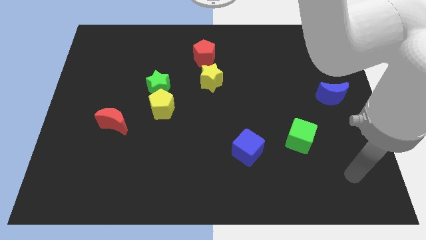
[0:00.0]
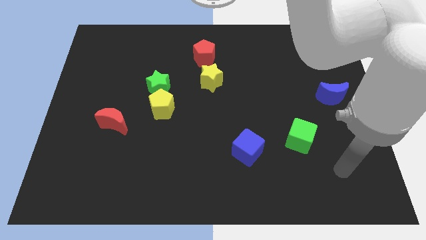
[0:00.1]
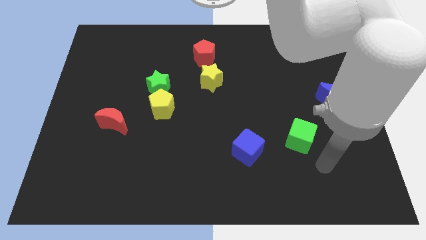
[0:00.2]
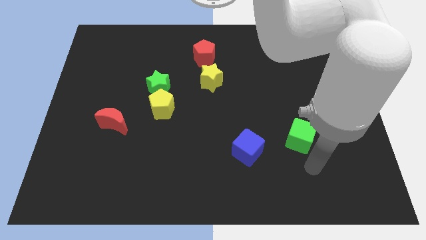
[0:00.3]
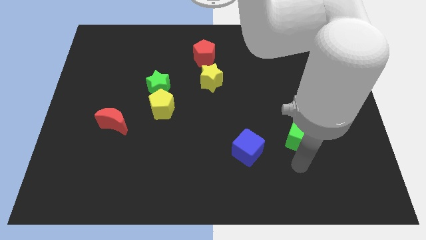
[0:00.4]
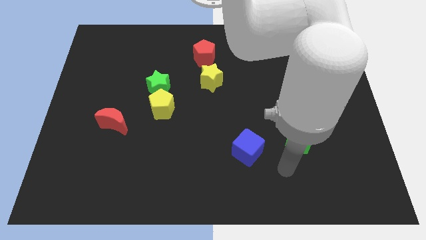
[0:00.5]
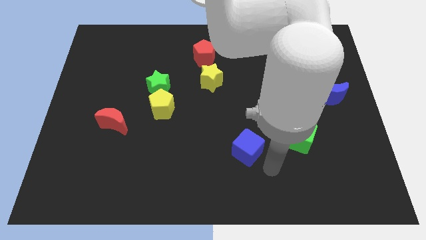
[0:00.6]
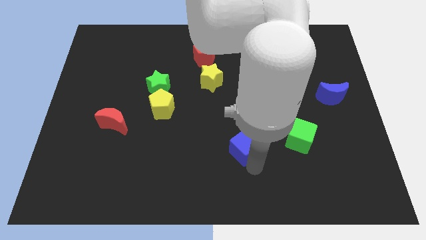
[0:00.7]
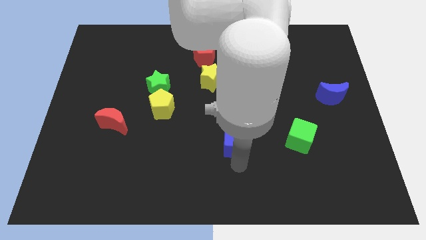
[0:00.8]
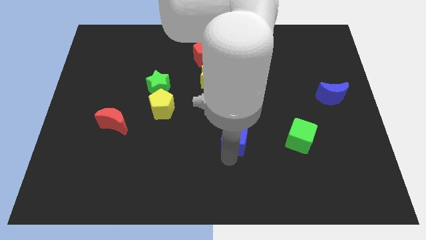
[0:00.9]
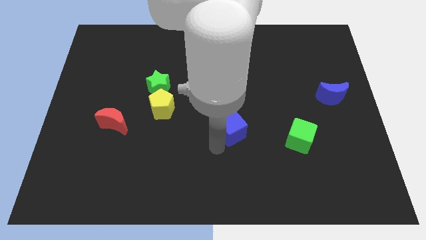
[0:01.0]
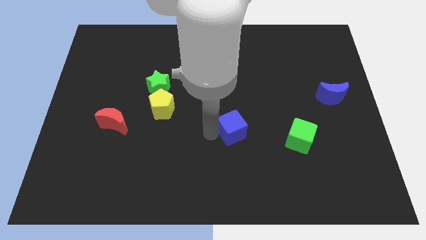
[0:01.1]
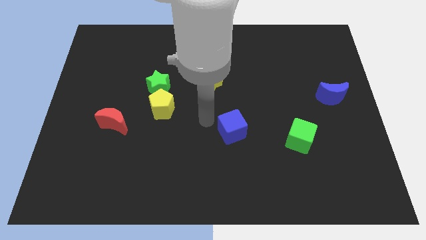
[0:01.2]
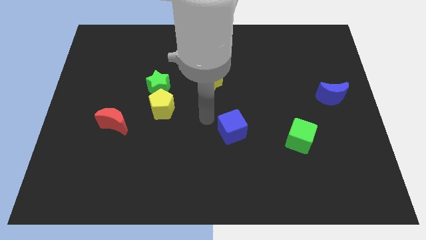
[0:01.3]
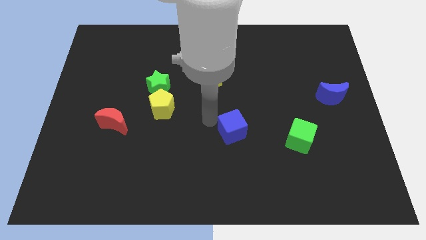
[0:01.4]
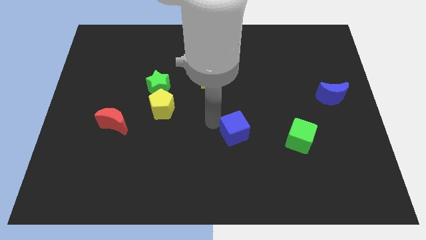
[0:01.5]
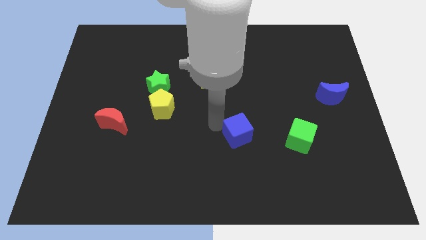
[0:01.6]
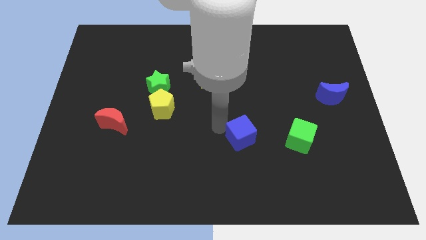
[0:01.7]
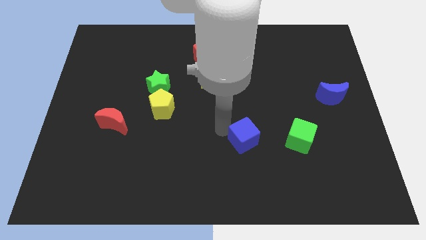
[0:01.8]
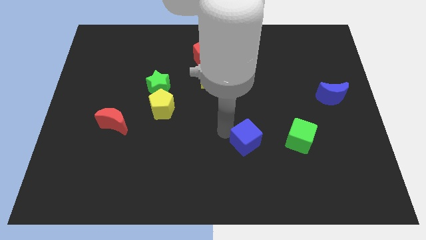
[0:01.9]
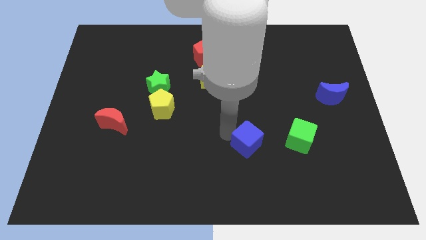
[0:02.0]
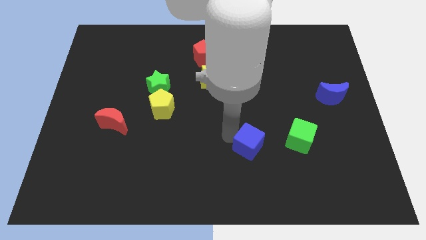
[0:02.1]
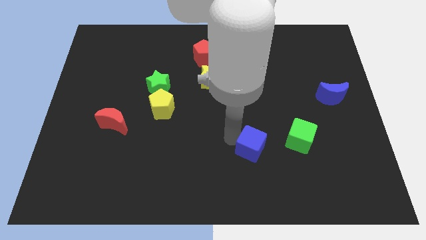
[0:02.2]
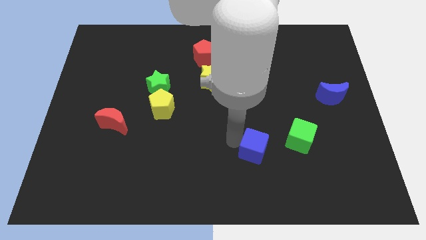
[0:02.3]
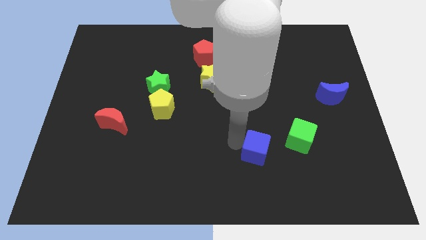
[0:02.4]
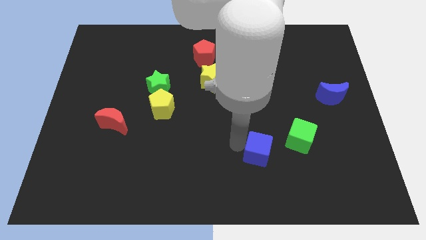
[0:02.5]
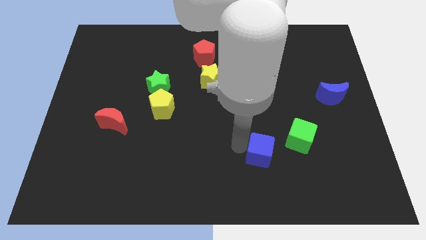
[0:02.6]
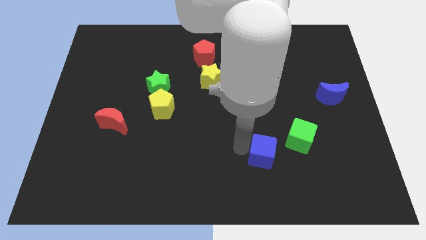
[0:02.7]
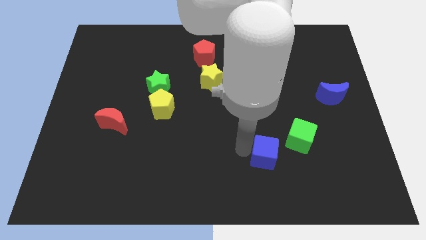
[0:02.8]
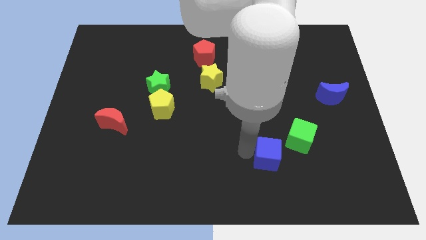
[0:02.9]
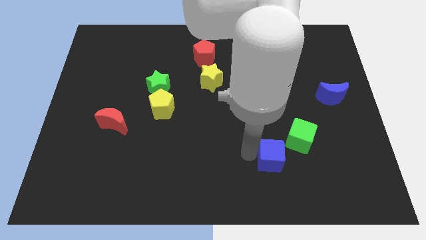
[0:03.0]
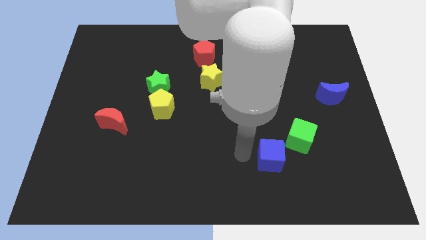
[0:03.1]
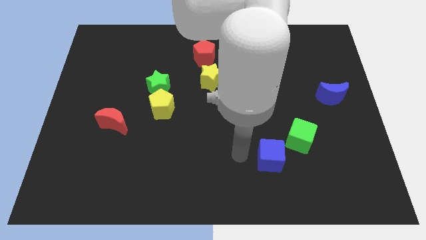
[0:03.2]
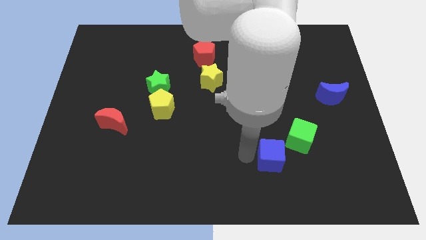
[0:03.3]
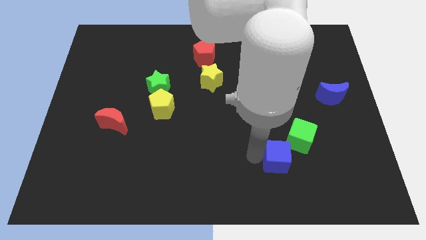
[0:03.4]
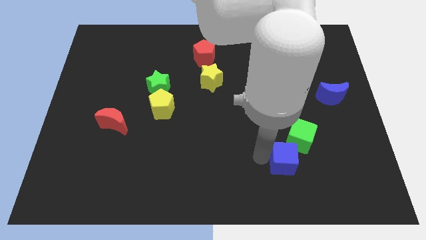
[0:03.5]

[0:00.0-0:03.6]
slide the blue cube right a little bit

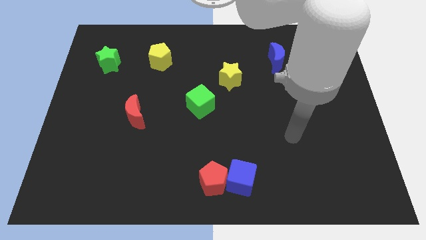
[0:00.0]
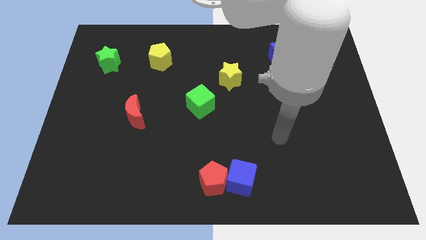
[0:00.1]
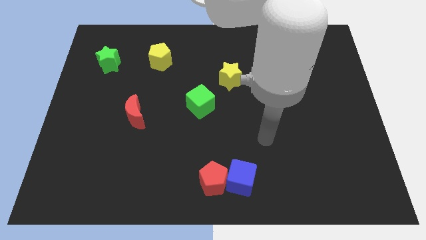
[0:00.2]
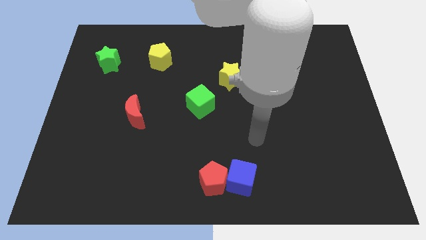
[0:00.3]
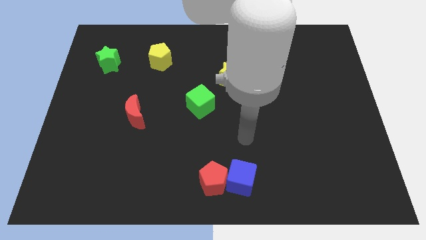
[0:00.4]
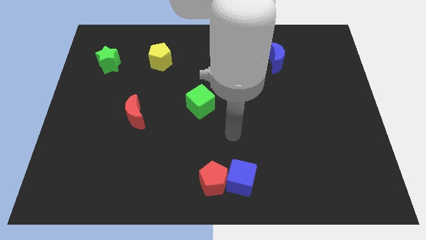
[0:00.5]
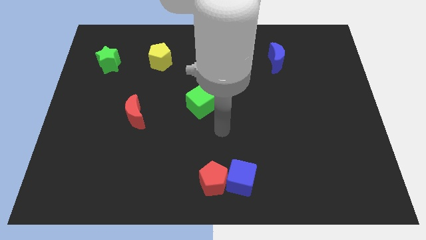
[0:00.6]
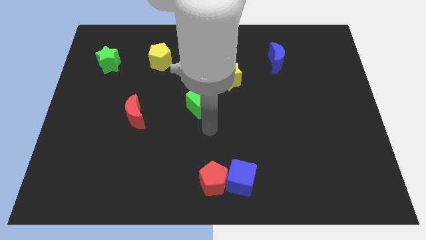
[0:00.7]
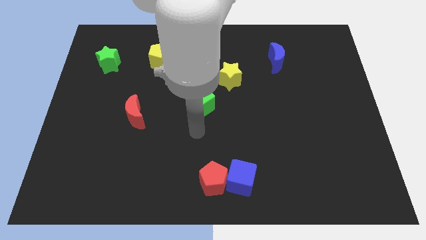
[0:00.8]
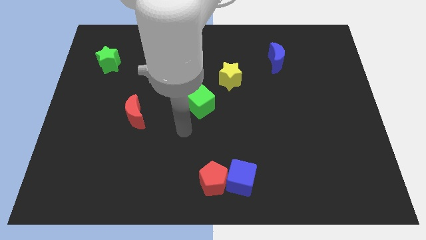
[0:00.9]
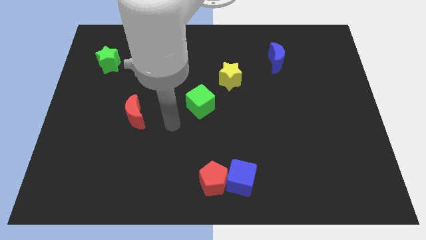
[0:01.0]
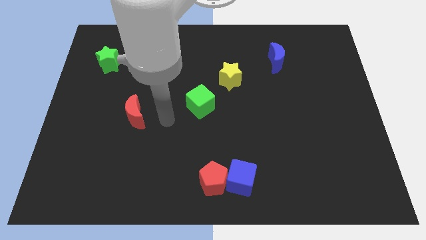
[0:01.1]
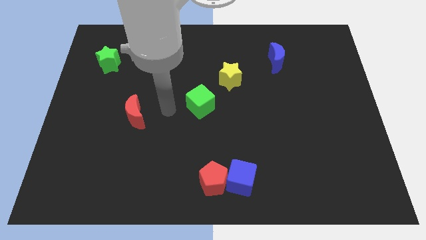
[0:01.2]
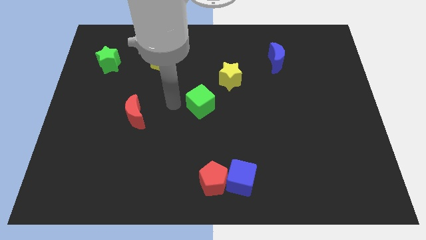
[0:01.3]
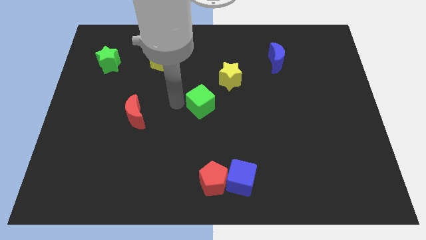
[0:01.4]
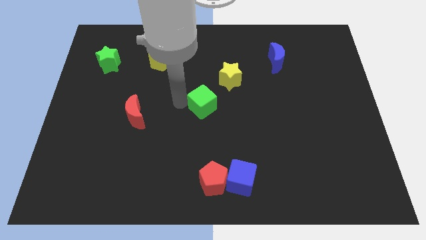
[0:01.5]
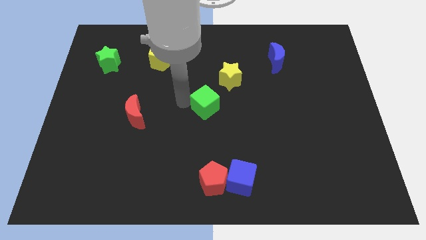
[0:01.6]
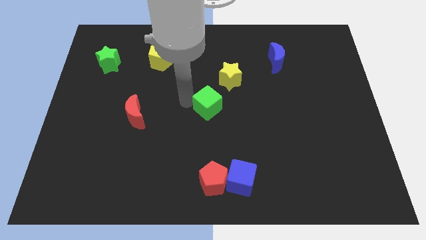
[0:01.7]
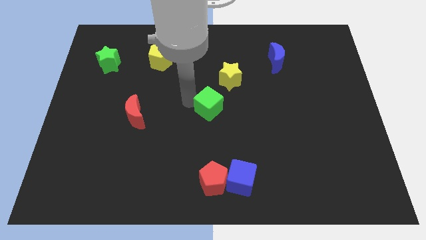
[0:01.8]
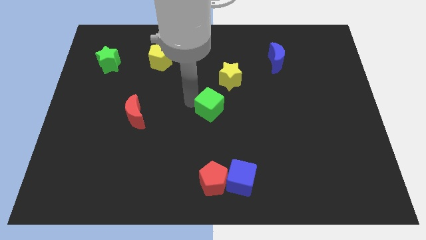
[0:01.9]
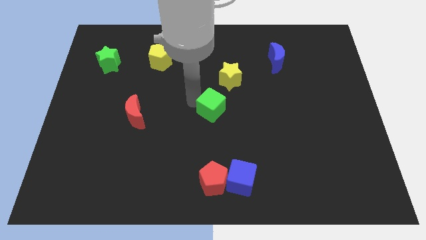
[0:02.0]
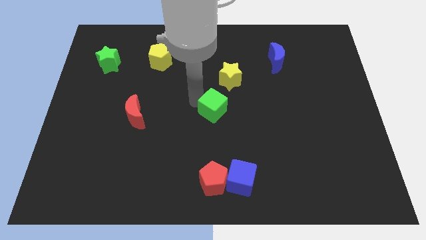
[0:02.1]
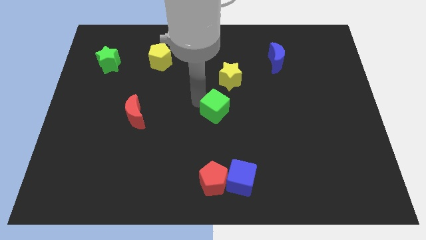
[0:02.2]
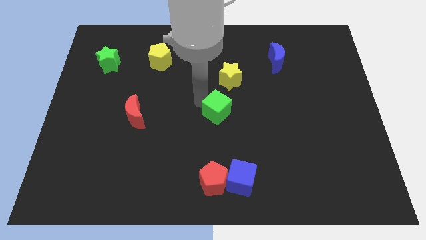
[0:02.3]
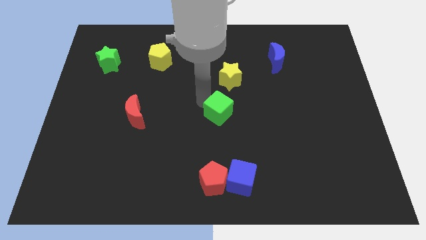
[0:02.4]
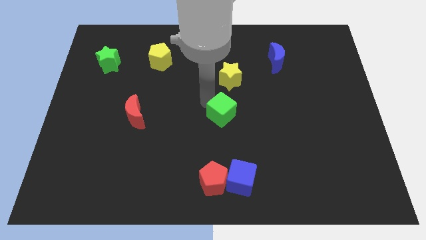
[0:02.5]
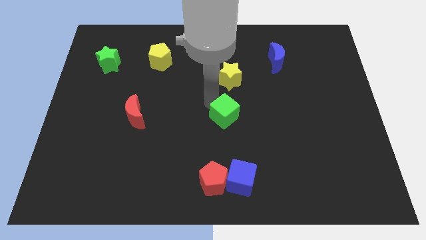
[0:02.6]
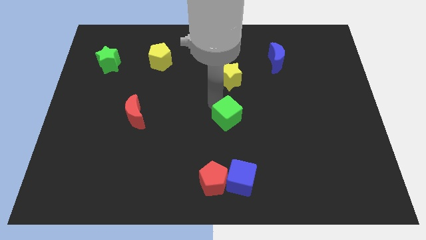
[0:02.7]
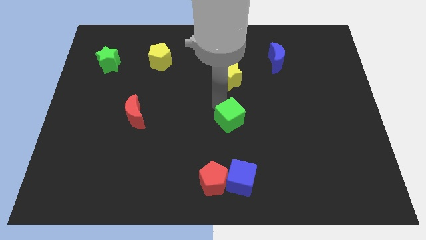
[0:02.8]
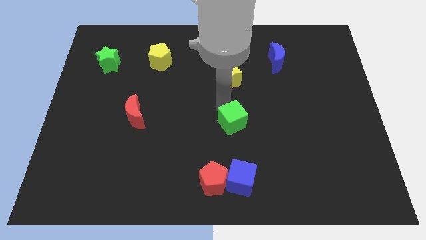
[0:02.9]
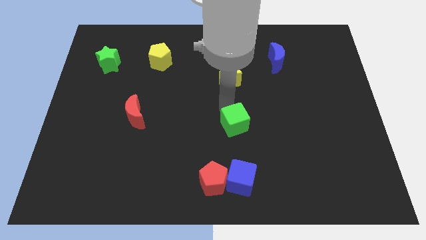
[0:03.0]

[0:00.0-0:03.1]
push the green cube somewhat to the right

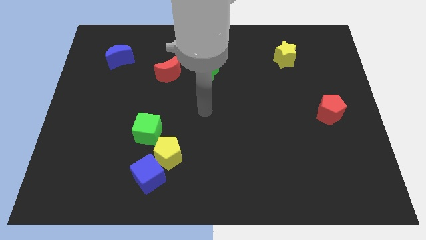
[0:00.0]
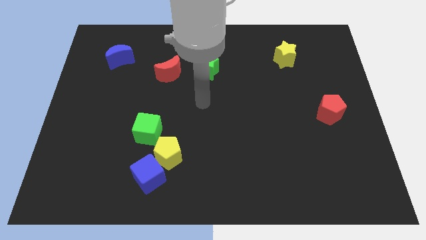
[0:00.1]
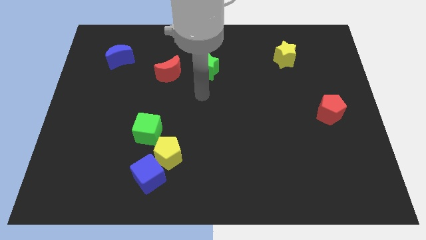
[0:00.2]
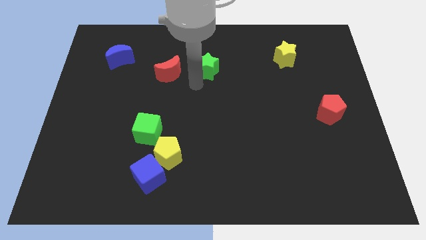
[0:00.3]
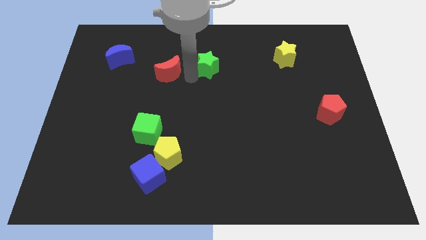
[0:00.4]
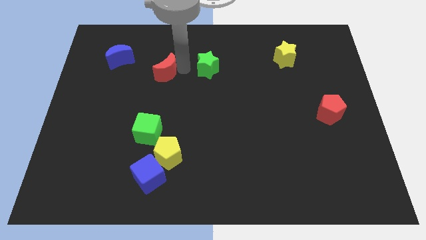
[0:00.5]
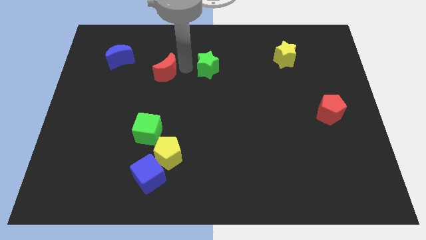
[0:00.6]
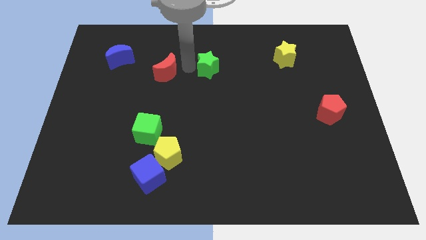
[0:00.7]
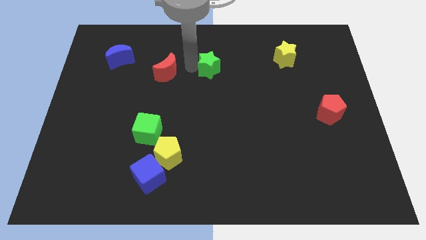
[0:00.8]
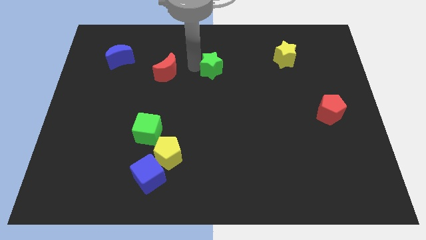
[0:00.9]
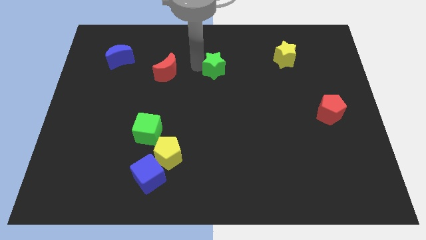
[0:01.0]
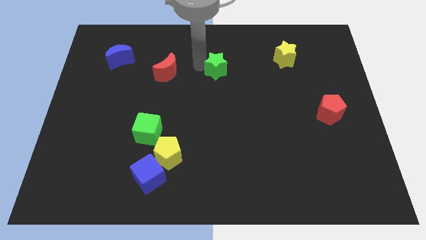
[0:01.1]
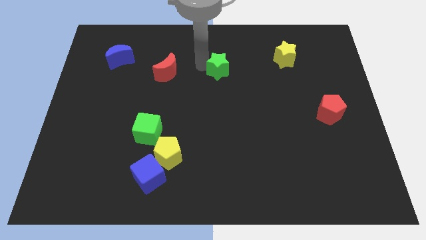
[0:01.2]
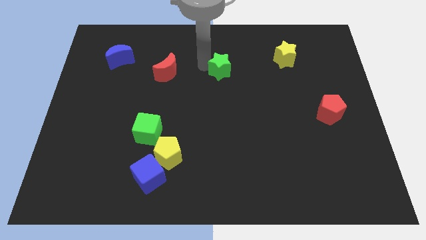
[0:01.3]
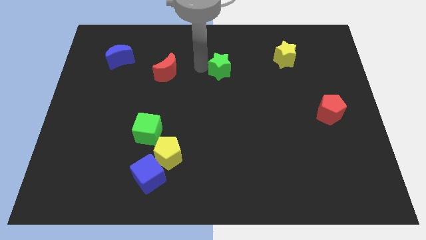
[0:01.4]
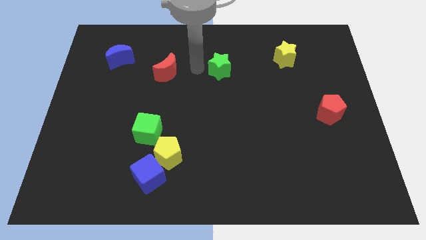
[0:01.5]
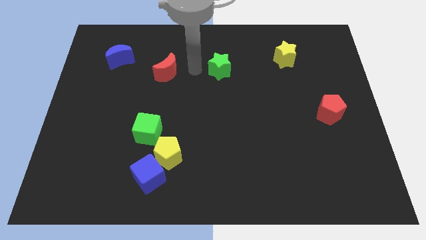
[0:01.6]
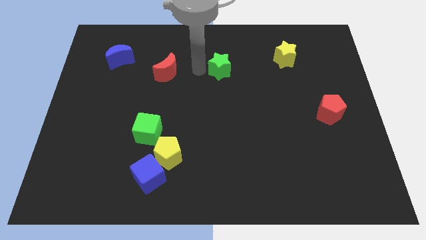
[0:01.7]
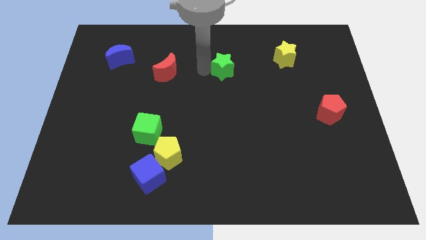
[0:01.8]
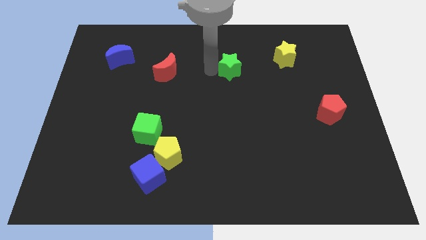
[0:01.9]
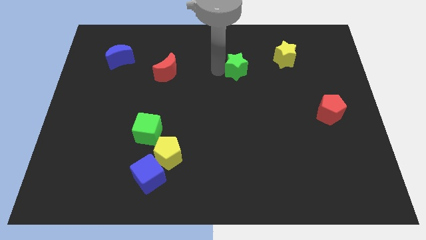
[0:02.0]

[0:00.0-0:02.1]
push the green star right a little bit
